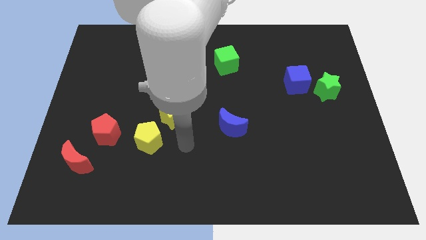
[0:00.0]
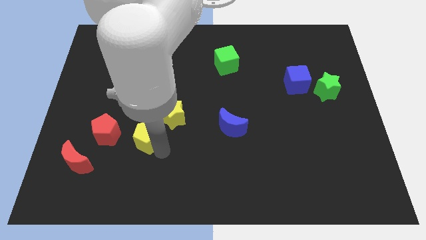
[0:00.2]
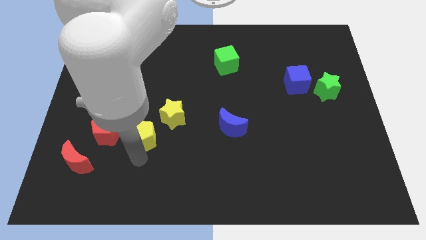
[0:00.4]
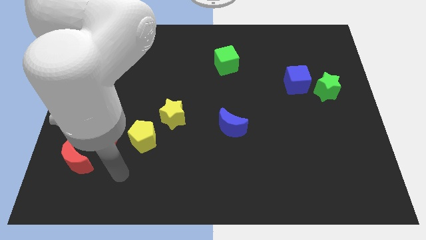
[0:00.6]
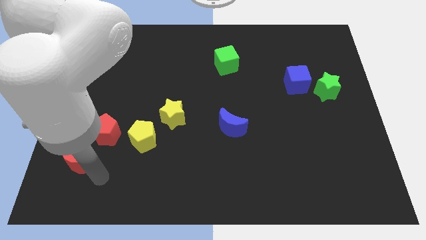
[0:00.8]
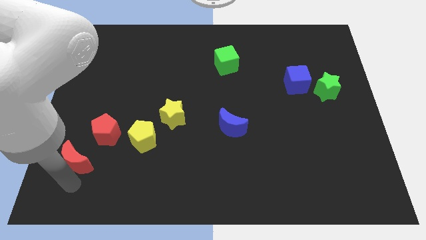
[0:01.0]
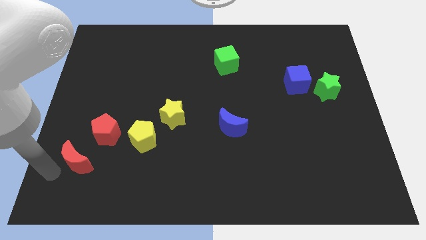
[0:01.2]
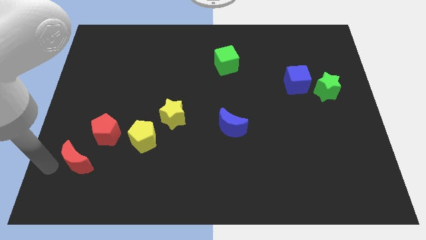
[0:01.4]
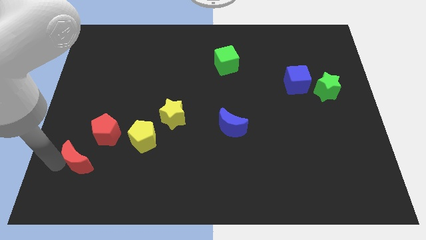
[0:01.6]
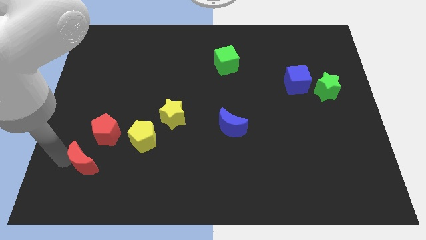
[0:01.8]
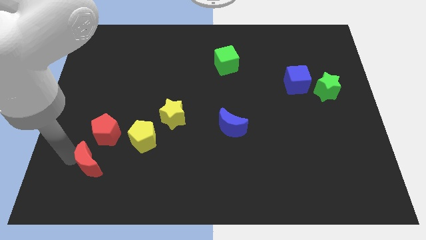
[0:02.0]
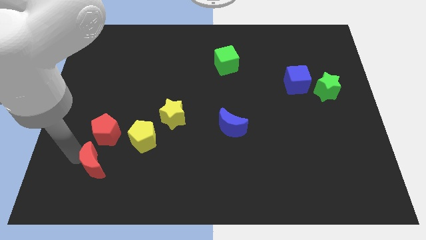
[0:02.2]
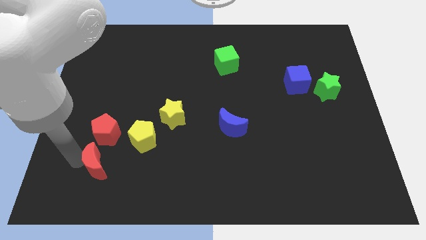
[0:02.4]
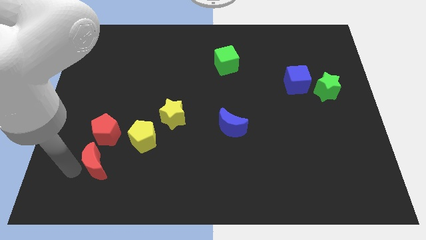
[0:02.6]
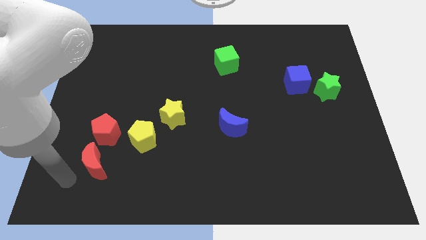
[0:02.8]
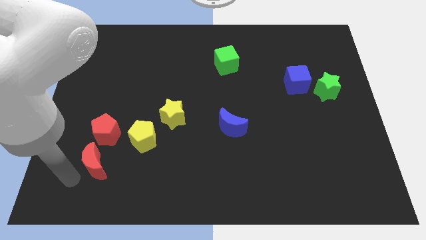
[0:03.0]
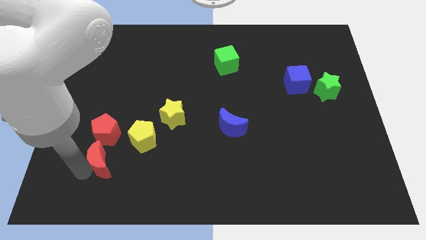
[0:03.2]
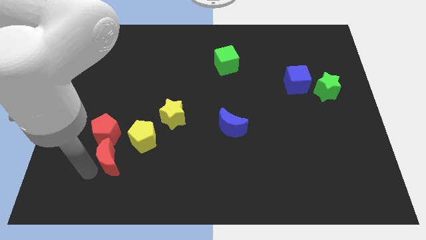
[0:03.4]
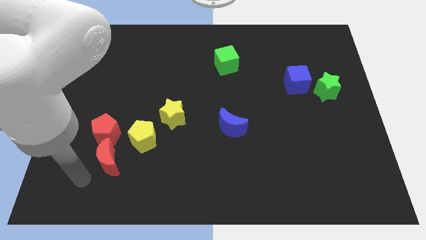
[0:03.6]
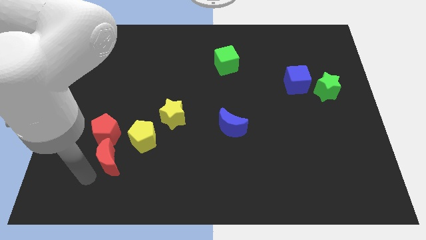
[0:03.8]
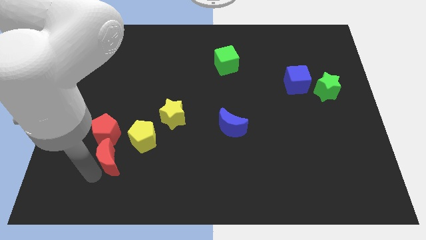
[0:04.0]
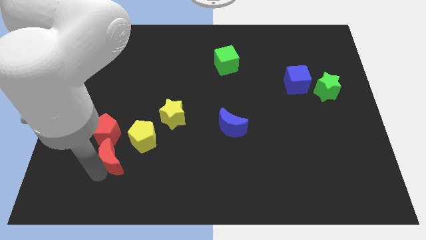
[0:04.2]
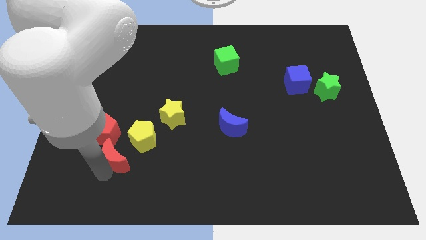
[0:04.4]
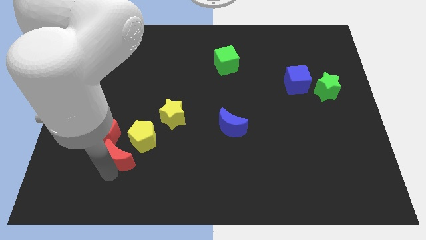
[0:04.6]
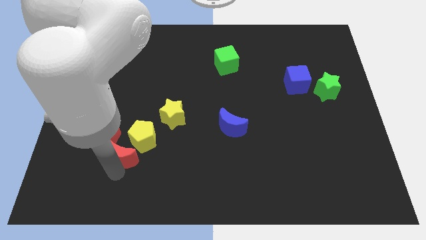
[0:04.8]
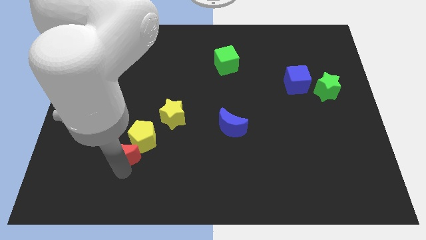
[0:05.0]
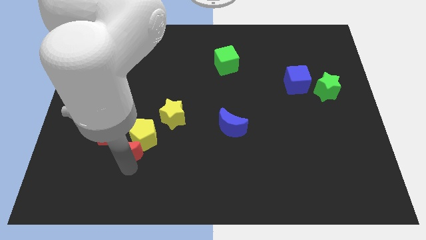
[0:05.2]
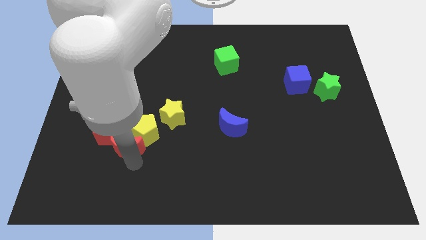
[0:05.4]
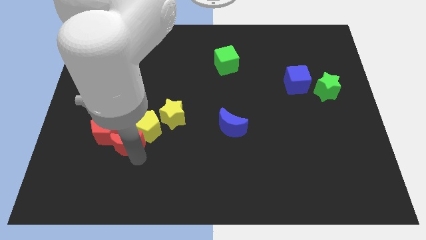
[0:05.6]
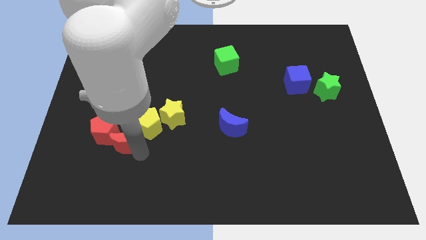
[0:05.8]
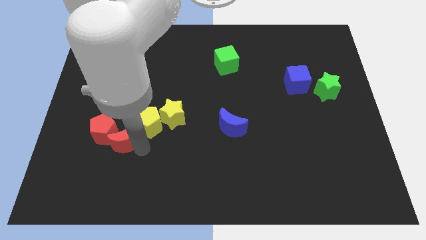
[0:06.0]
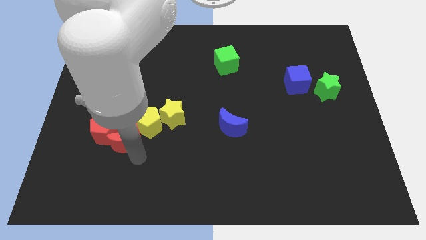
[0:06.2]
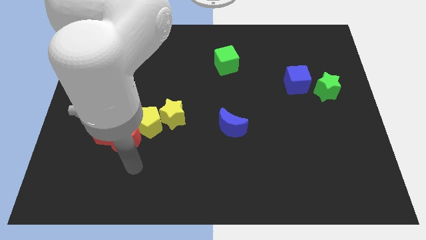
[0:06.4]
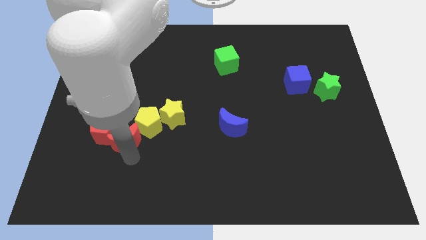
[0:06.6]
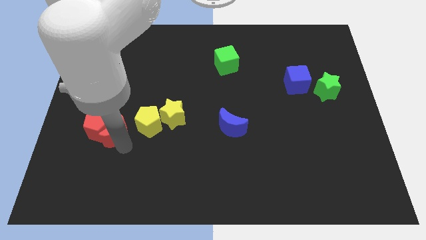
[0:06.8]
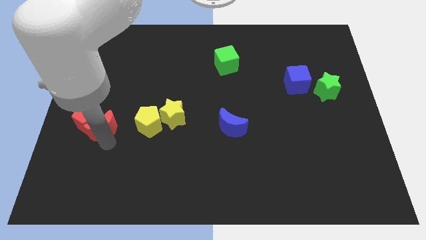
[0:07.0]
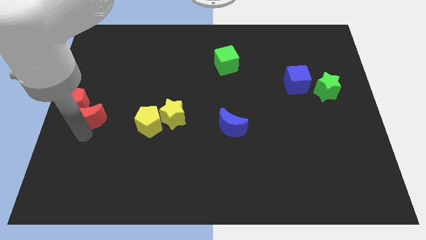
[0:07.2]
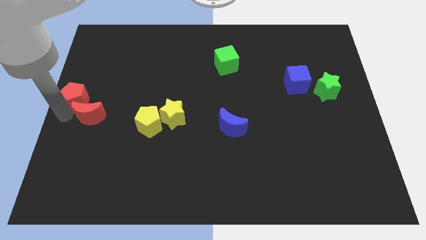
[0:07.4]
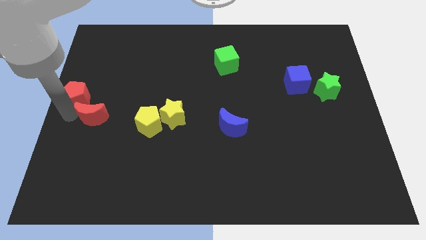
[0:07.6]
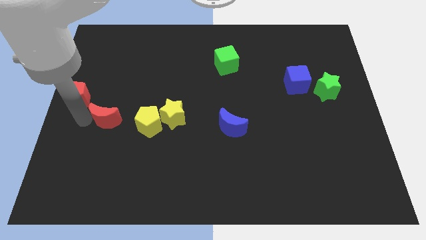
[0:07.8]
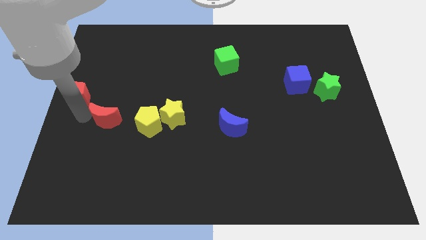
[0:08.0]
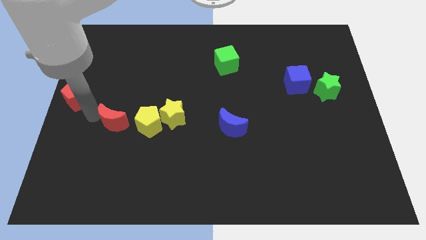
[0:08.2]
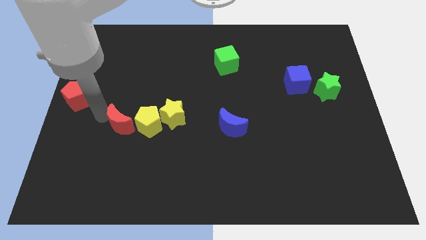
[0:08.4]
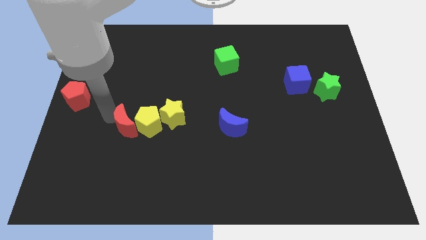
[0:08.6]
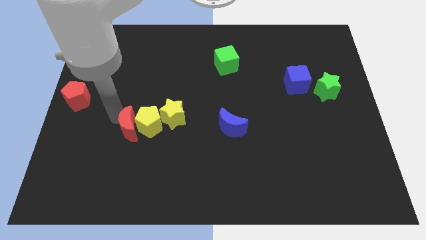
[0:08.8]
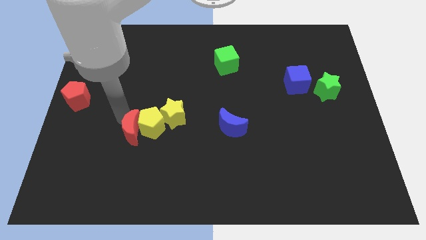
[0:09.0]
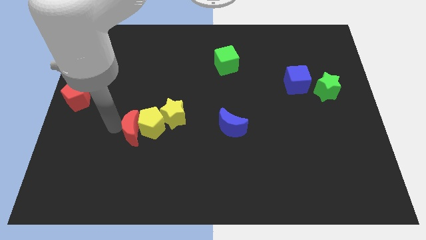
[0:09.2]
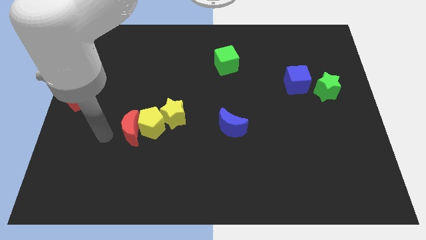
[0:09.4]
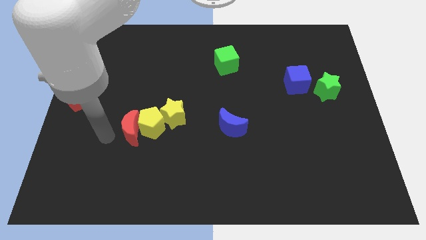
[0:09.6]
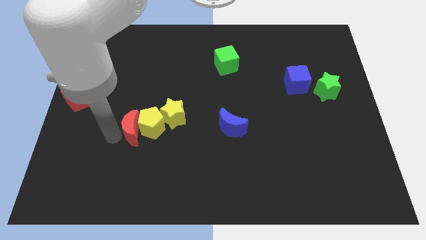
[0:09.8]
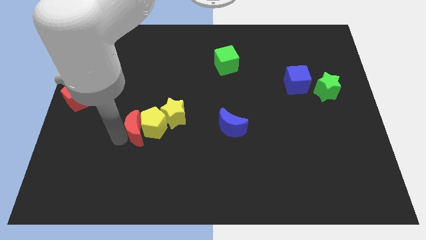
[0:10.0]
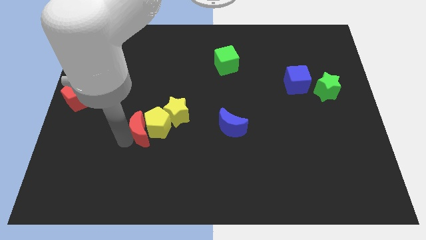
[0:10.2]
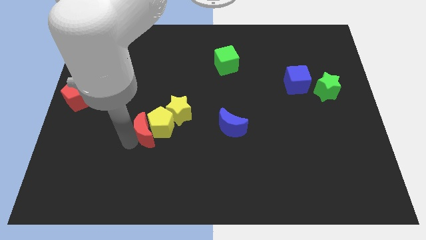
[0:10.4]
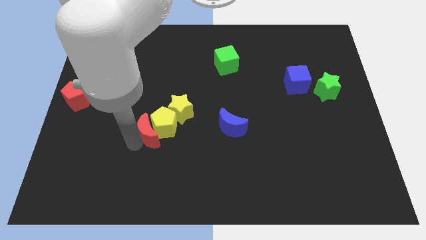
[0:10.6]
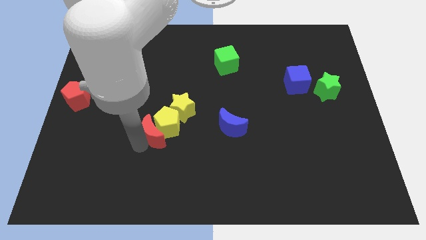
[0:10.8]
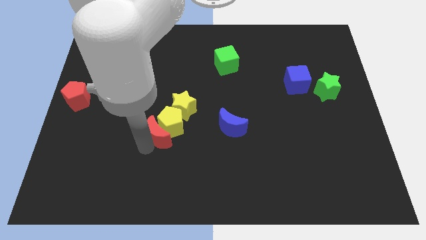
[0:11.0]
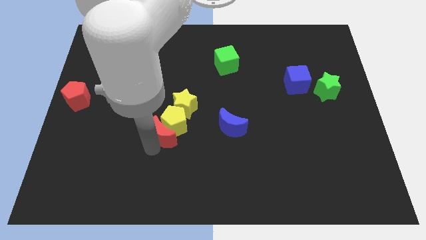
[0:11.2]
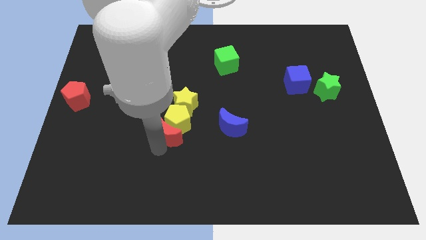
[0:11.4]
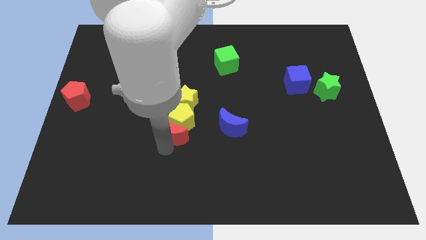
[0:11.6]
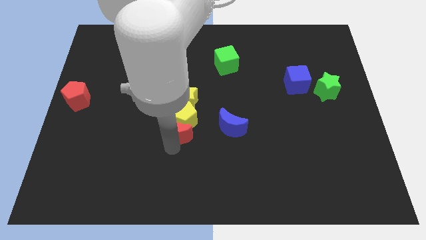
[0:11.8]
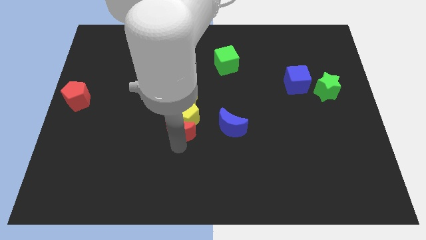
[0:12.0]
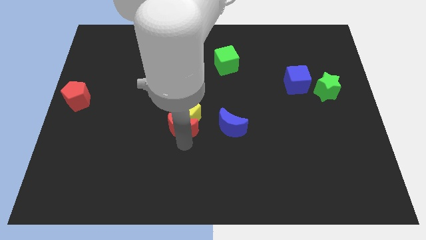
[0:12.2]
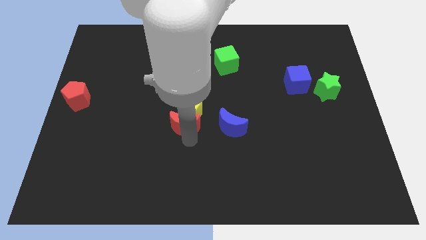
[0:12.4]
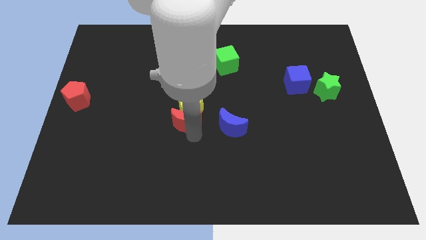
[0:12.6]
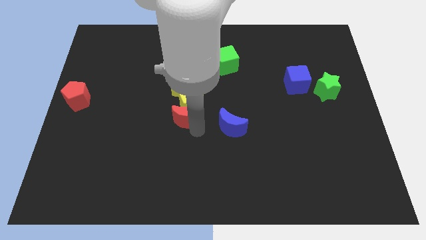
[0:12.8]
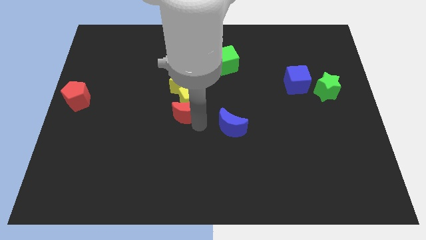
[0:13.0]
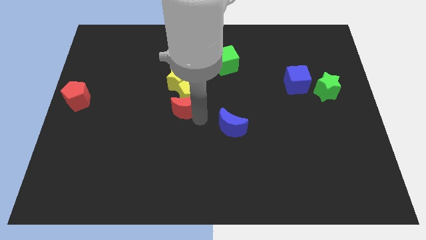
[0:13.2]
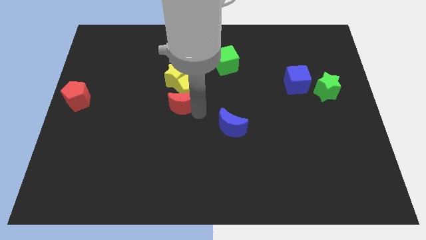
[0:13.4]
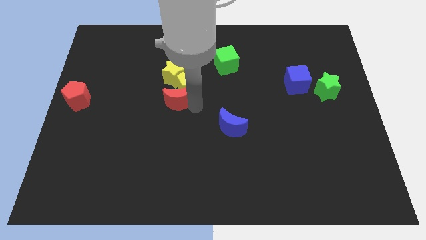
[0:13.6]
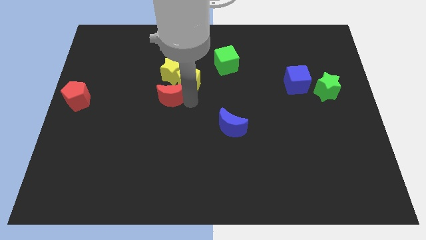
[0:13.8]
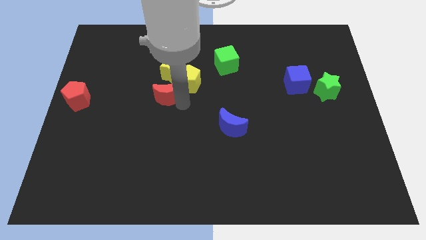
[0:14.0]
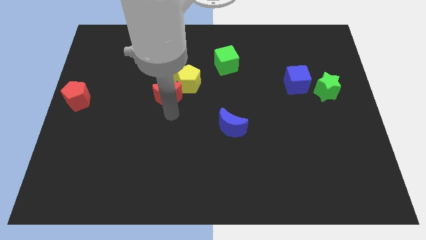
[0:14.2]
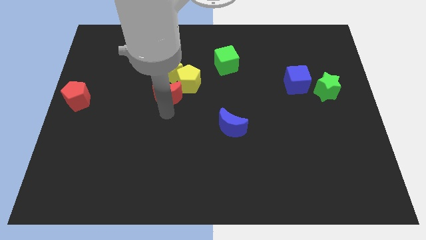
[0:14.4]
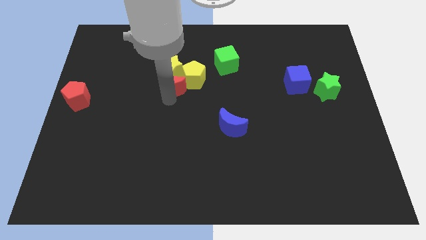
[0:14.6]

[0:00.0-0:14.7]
put the red moon towards the yellow star
